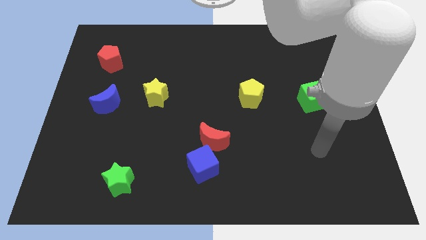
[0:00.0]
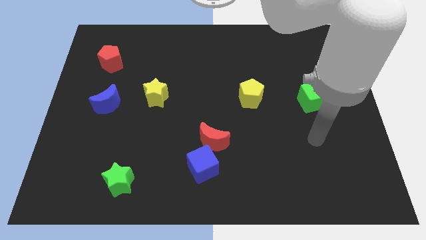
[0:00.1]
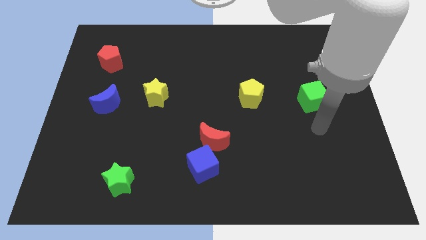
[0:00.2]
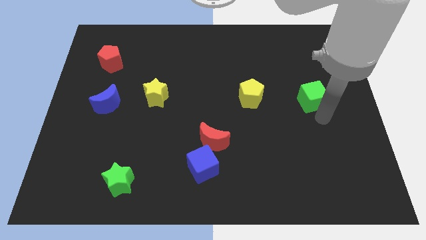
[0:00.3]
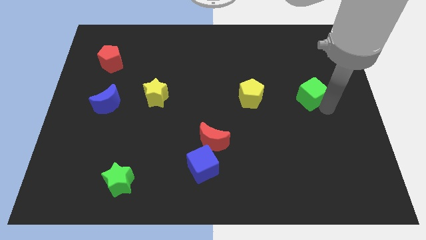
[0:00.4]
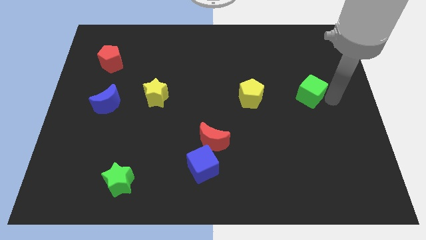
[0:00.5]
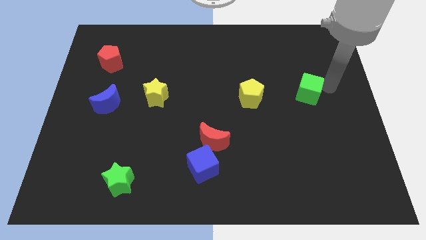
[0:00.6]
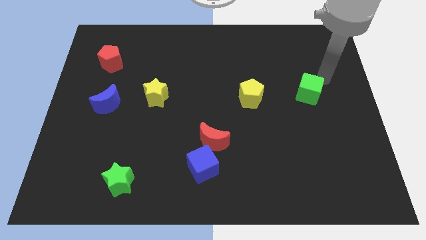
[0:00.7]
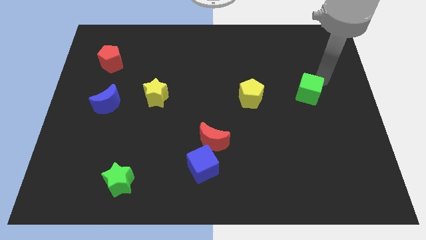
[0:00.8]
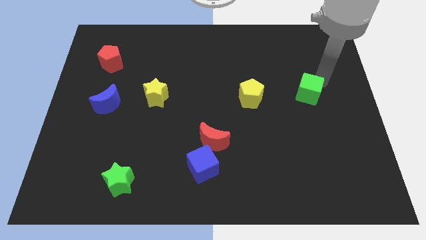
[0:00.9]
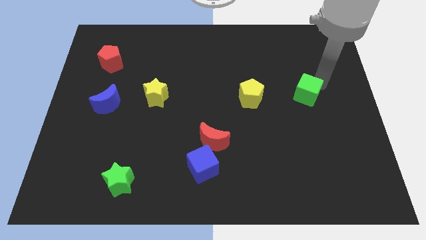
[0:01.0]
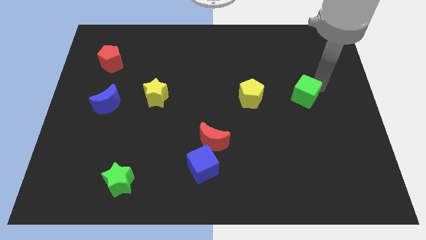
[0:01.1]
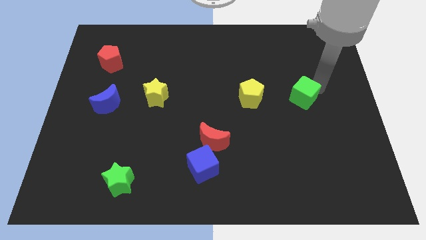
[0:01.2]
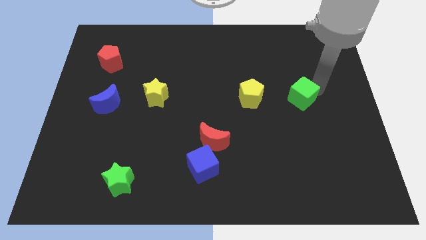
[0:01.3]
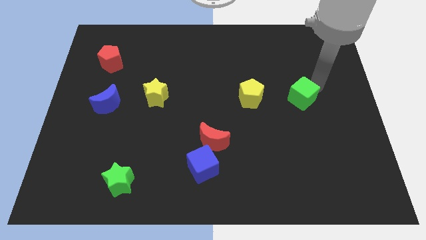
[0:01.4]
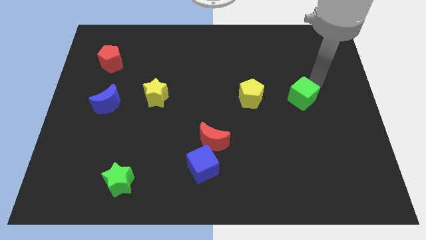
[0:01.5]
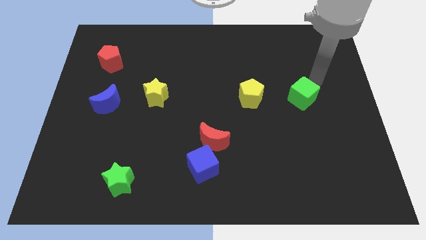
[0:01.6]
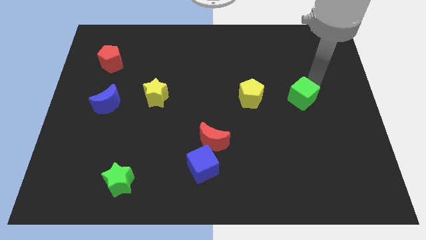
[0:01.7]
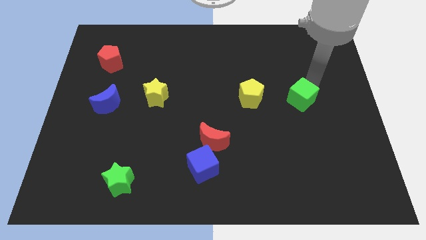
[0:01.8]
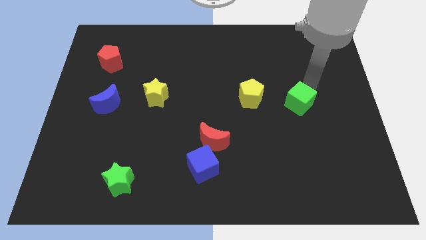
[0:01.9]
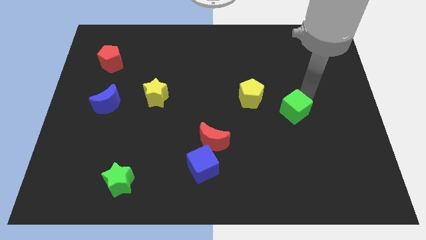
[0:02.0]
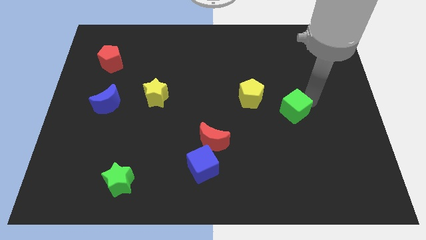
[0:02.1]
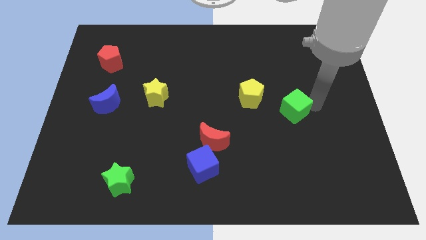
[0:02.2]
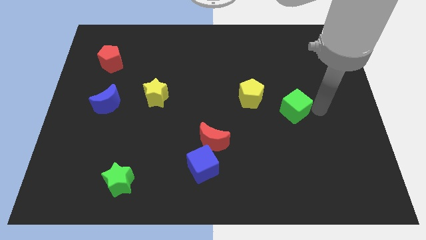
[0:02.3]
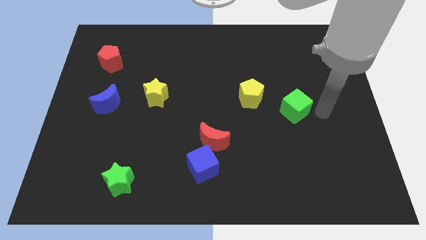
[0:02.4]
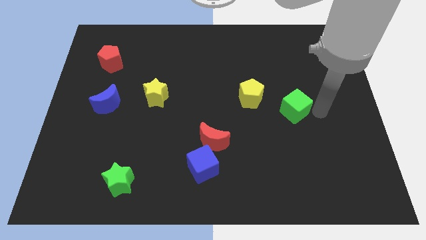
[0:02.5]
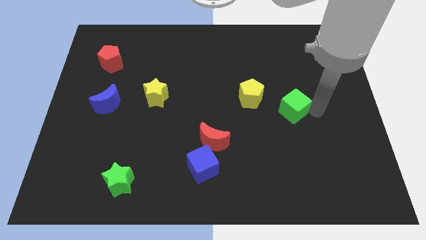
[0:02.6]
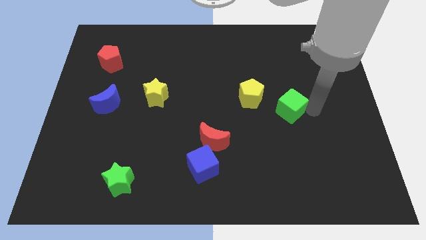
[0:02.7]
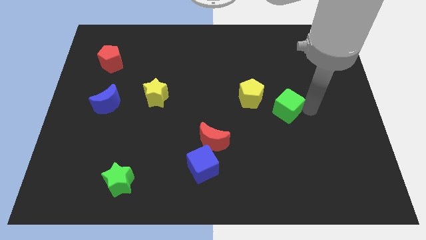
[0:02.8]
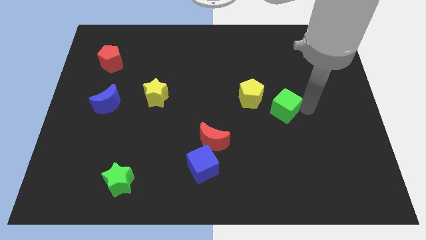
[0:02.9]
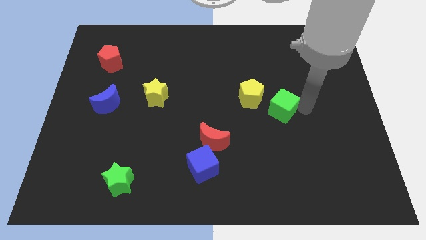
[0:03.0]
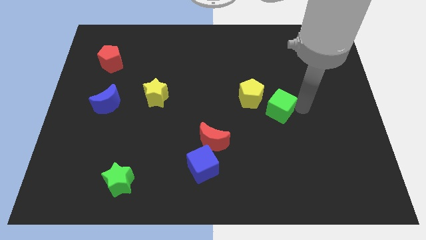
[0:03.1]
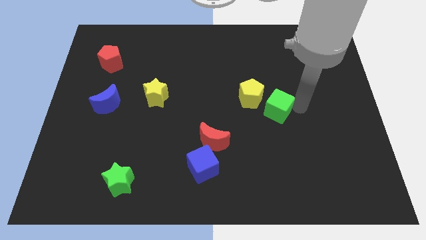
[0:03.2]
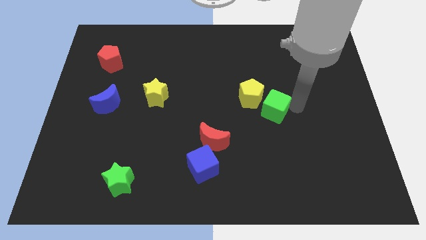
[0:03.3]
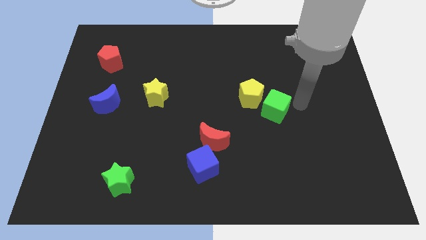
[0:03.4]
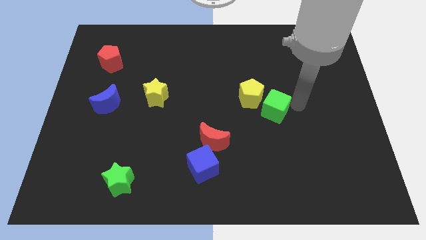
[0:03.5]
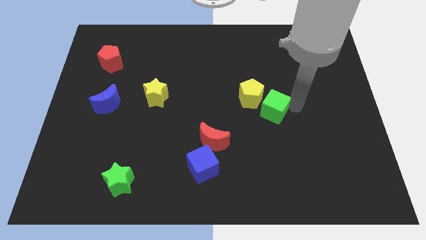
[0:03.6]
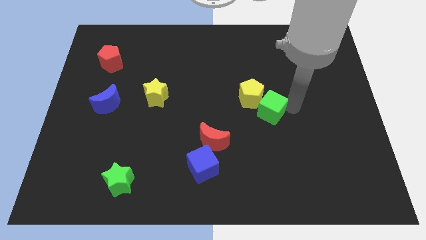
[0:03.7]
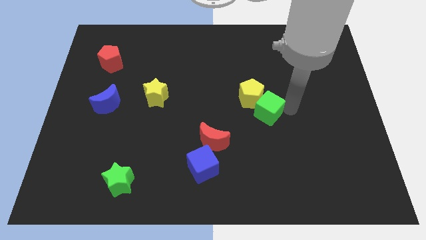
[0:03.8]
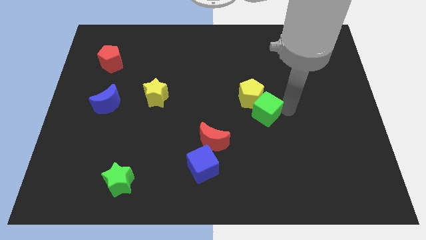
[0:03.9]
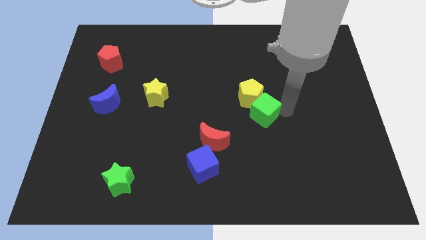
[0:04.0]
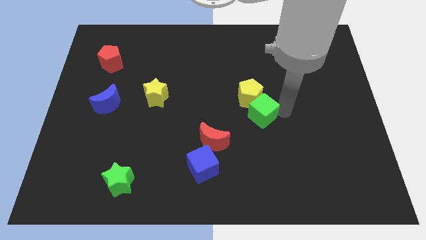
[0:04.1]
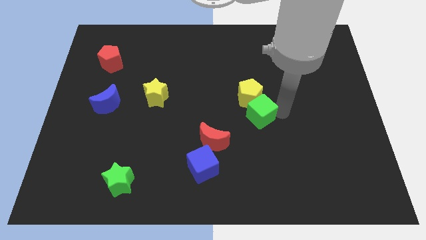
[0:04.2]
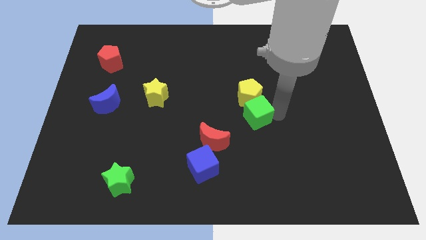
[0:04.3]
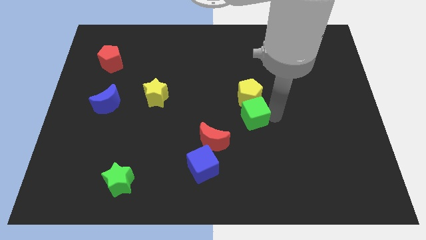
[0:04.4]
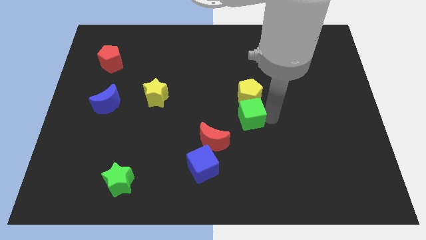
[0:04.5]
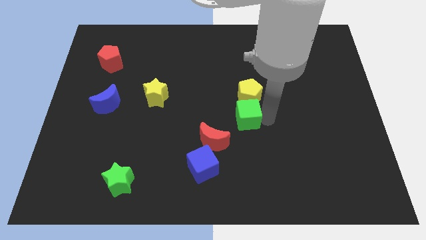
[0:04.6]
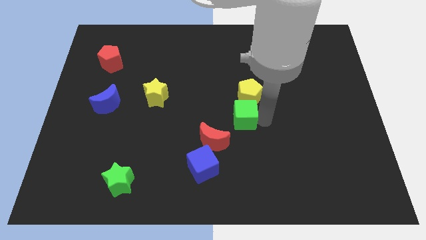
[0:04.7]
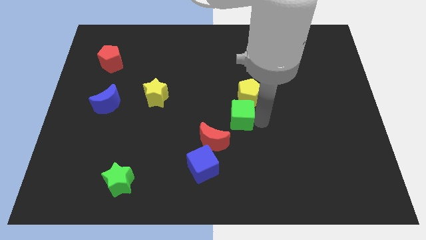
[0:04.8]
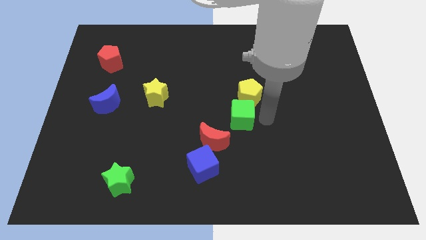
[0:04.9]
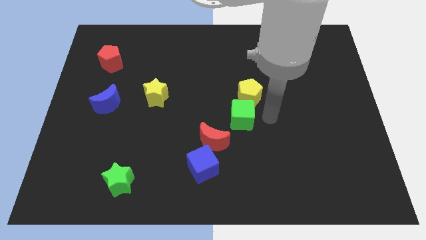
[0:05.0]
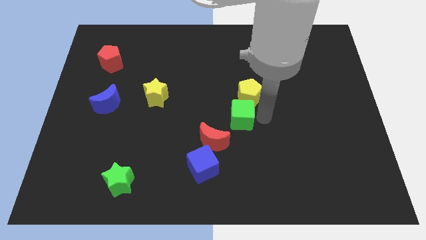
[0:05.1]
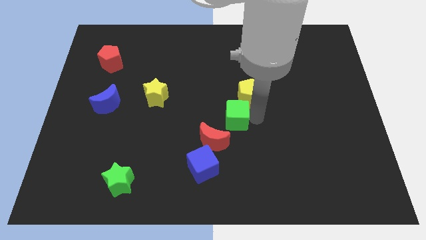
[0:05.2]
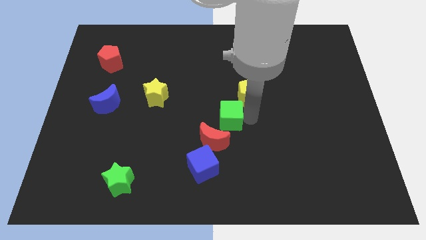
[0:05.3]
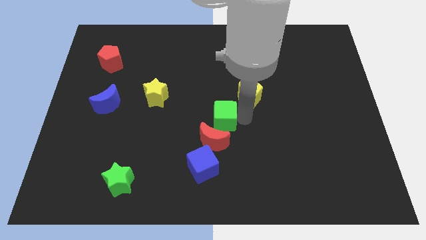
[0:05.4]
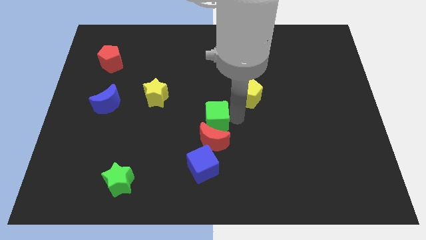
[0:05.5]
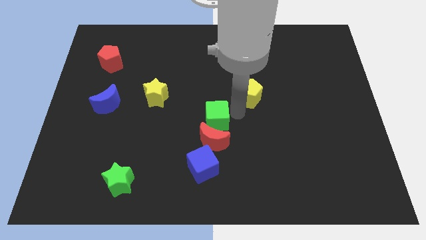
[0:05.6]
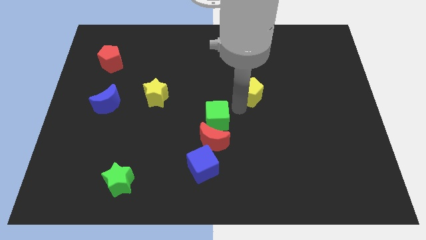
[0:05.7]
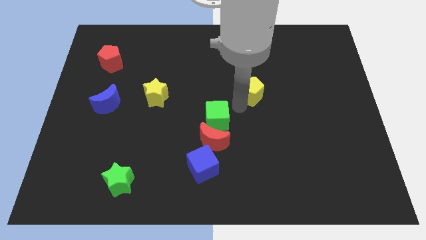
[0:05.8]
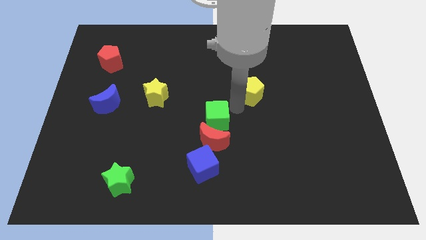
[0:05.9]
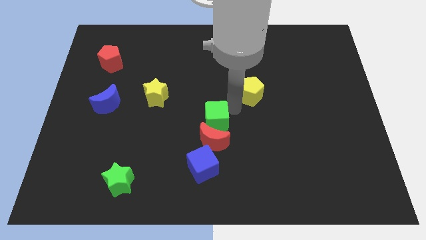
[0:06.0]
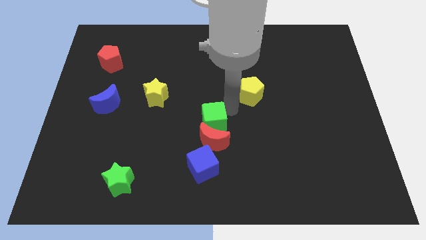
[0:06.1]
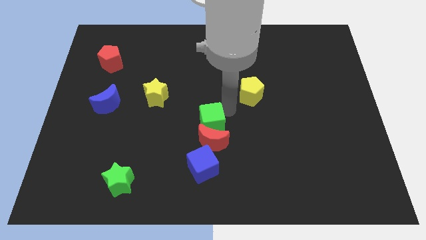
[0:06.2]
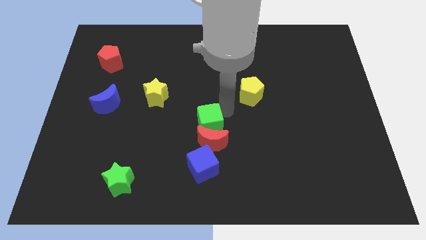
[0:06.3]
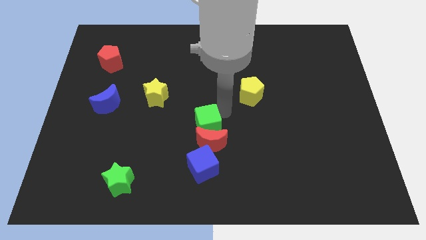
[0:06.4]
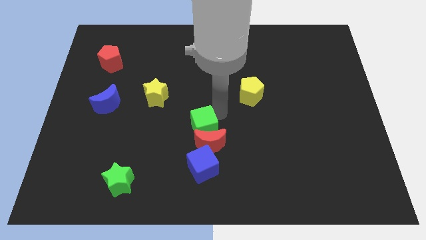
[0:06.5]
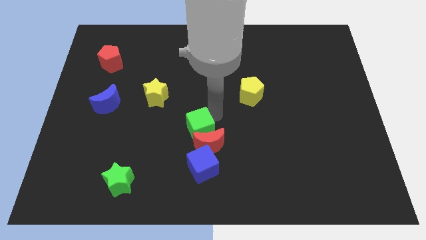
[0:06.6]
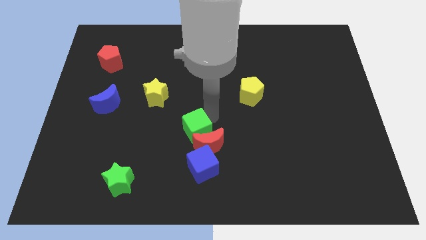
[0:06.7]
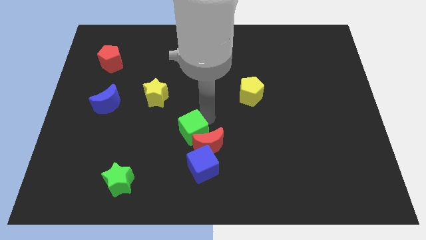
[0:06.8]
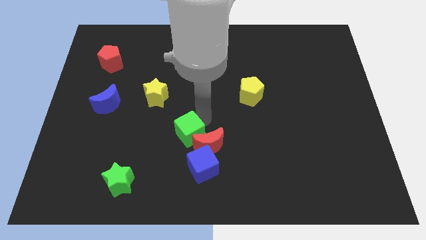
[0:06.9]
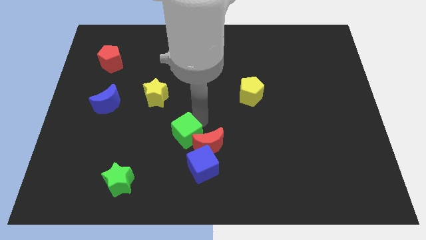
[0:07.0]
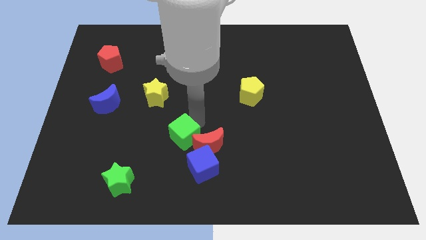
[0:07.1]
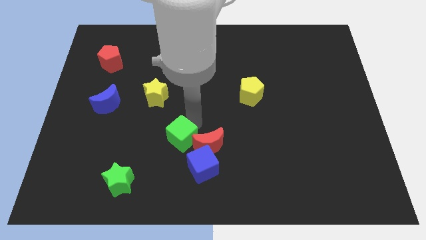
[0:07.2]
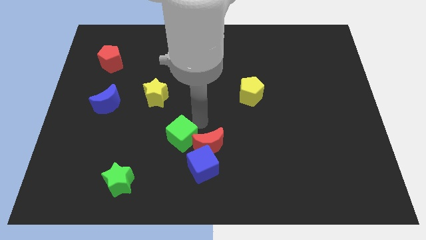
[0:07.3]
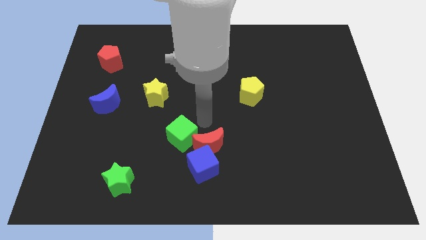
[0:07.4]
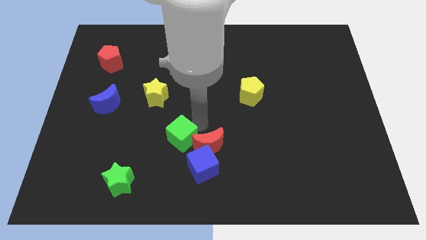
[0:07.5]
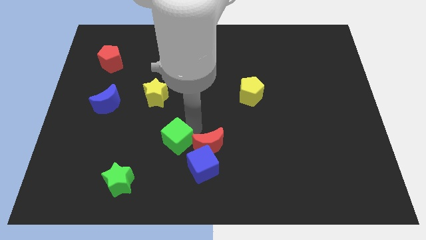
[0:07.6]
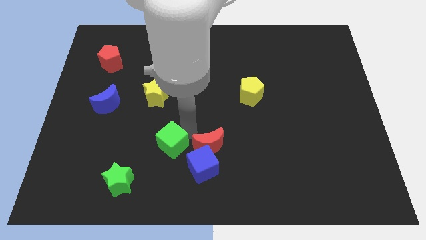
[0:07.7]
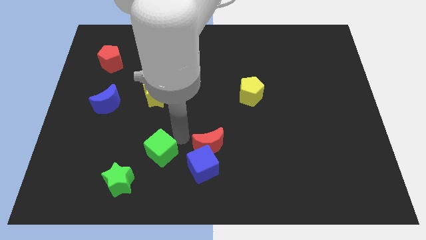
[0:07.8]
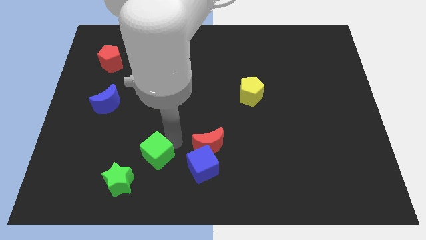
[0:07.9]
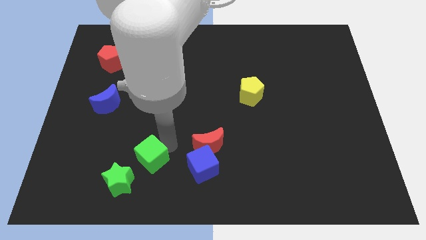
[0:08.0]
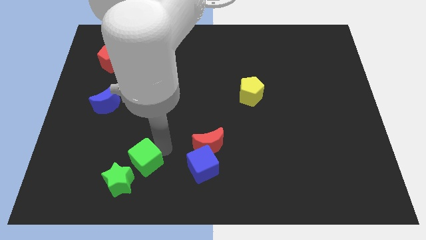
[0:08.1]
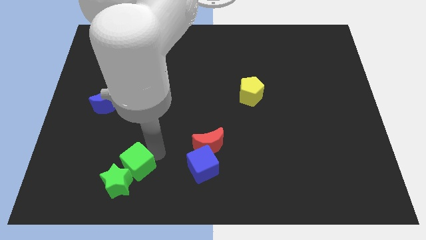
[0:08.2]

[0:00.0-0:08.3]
move the green cube towards the green star
